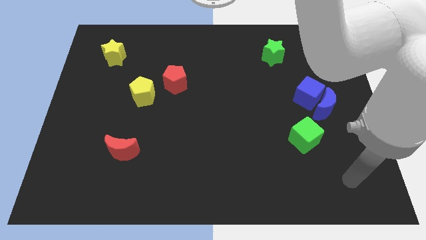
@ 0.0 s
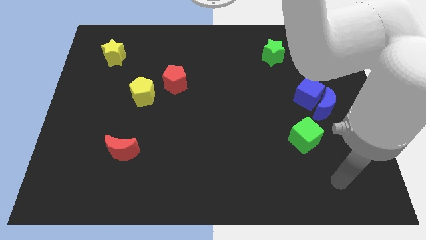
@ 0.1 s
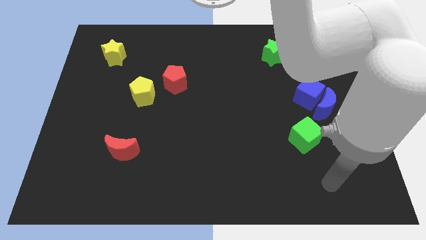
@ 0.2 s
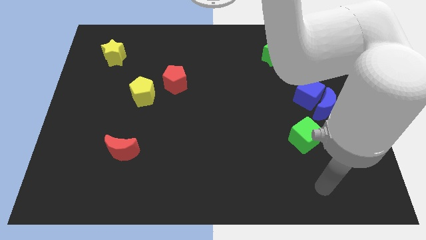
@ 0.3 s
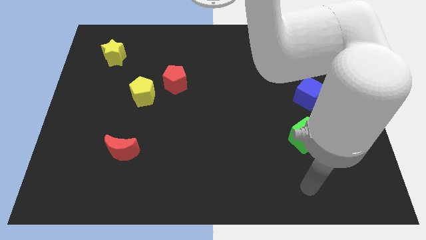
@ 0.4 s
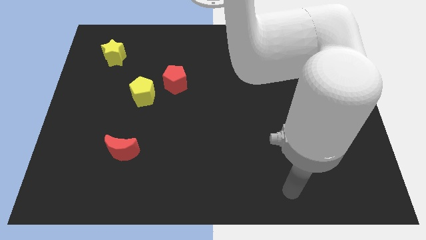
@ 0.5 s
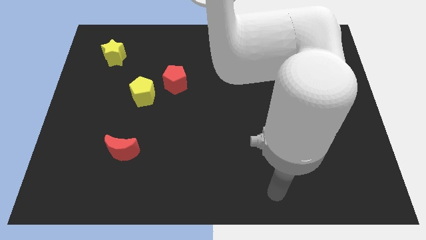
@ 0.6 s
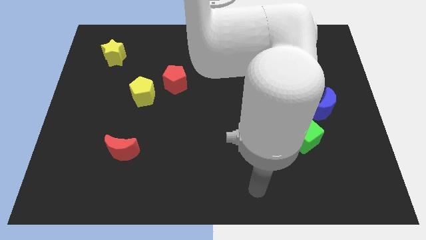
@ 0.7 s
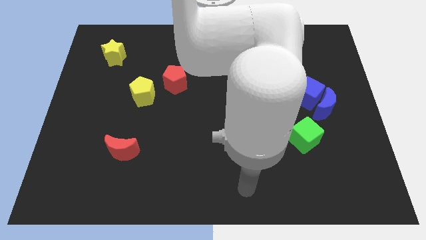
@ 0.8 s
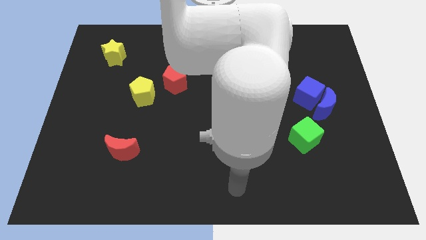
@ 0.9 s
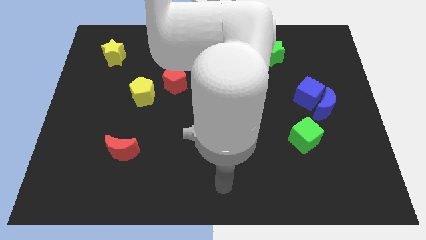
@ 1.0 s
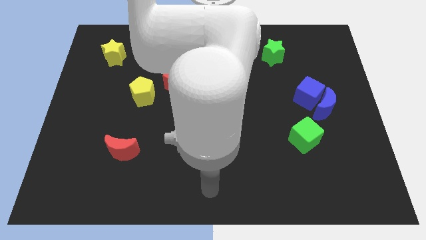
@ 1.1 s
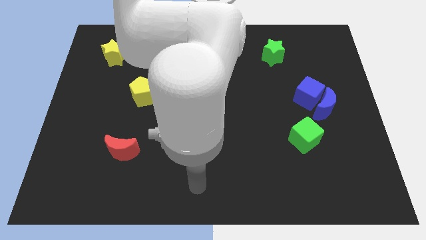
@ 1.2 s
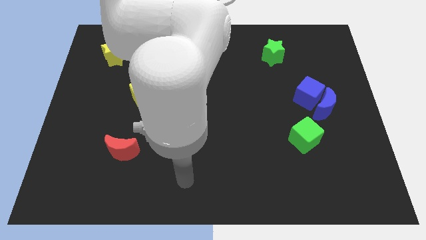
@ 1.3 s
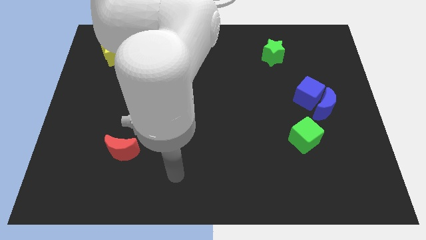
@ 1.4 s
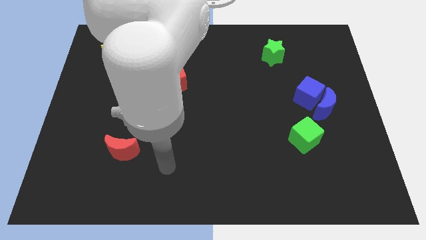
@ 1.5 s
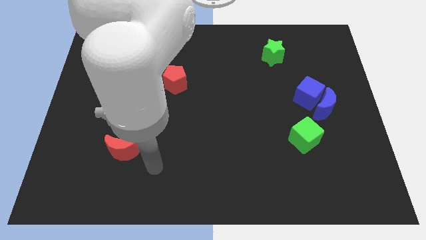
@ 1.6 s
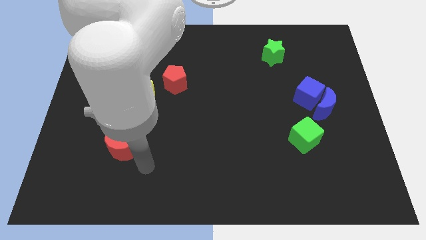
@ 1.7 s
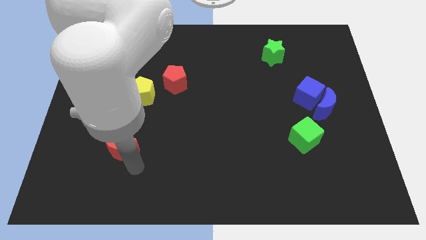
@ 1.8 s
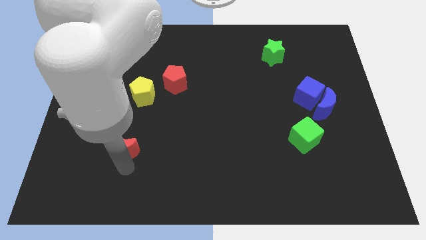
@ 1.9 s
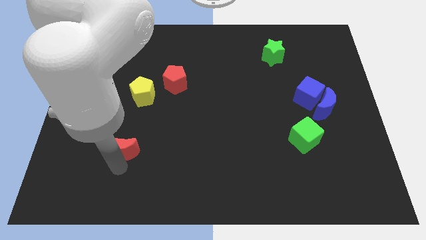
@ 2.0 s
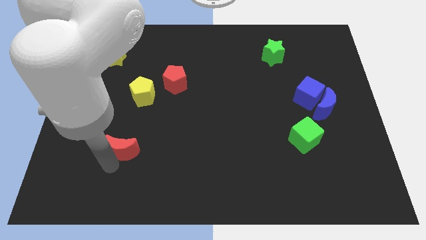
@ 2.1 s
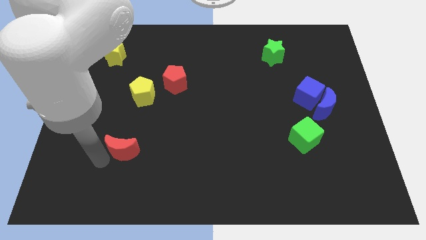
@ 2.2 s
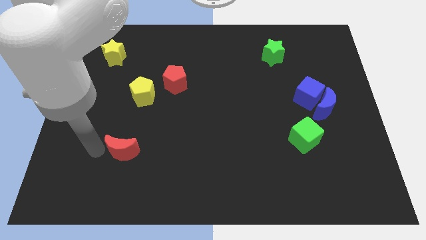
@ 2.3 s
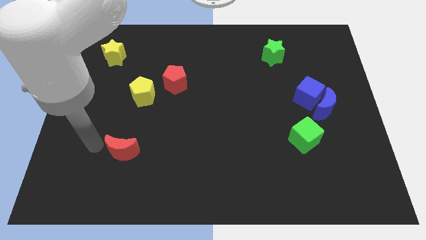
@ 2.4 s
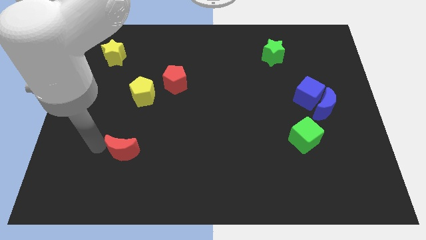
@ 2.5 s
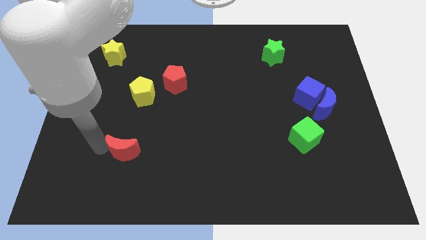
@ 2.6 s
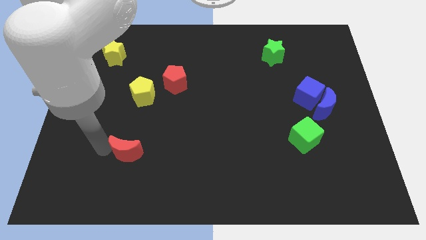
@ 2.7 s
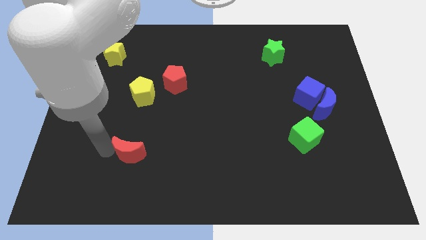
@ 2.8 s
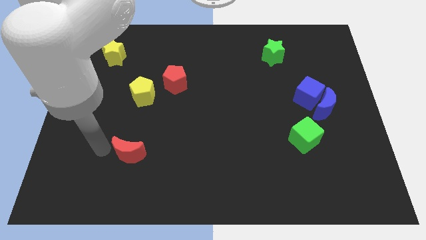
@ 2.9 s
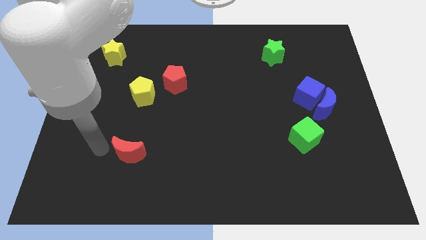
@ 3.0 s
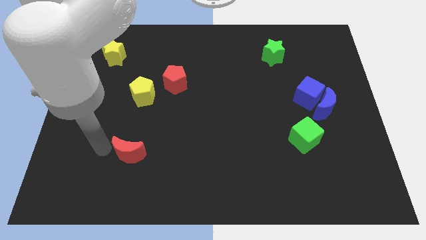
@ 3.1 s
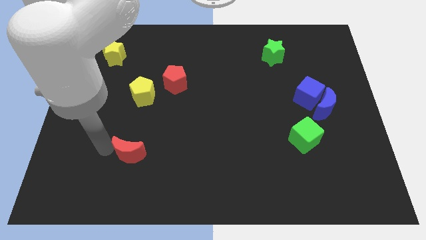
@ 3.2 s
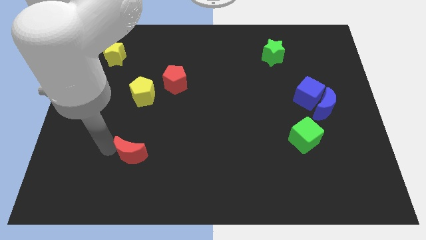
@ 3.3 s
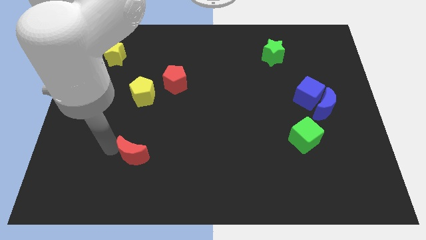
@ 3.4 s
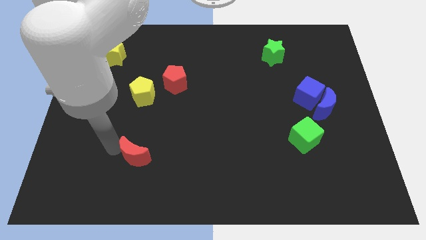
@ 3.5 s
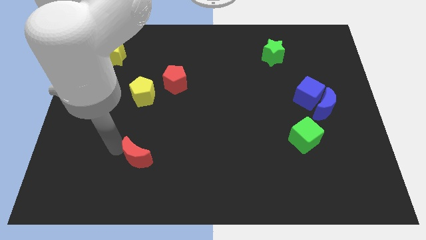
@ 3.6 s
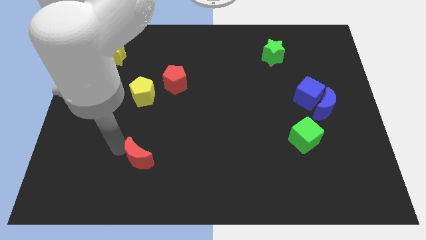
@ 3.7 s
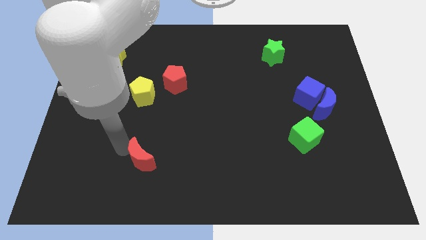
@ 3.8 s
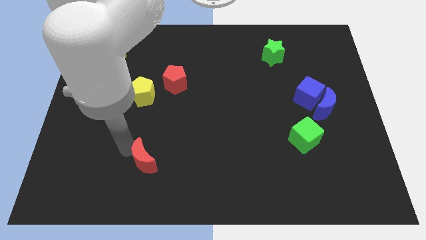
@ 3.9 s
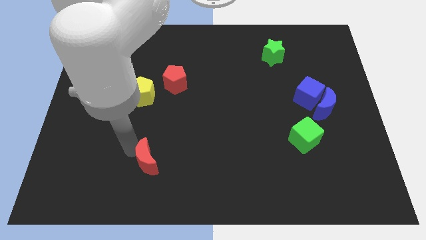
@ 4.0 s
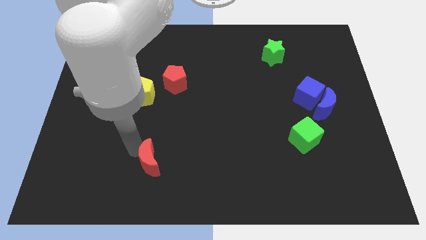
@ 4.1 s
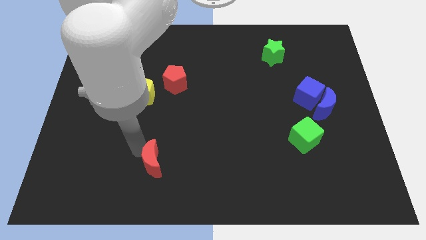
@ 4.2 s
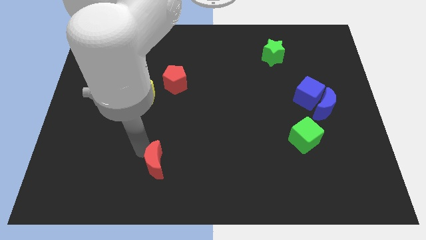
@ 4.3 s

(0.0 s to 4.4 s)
move the red moon slightly right

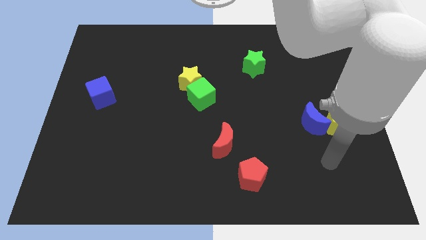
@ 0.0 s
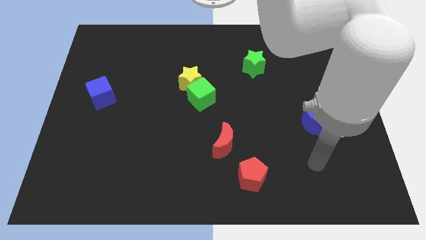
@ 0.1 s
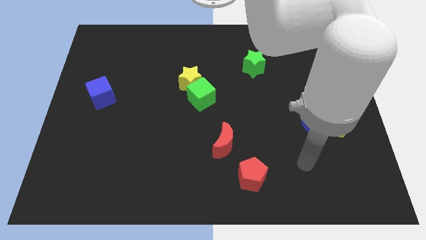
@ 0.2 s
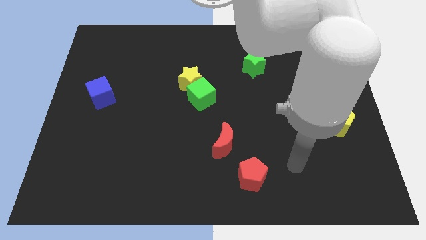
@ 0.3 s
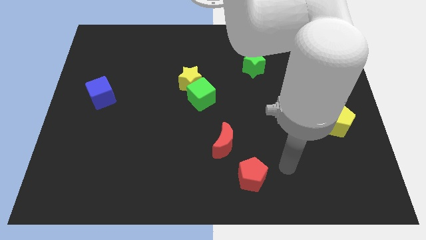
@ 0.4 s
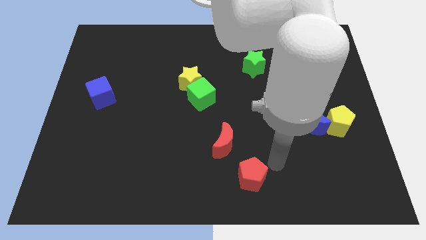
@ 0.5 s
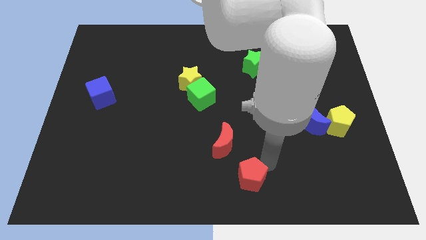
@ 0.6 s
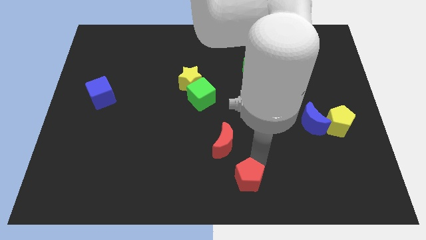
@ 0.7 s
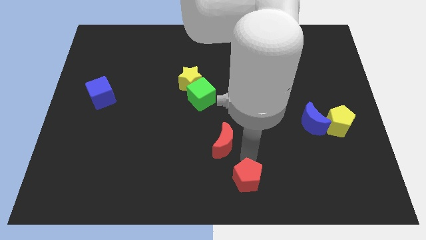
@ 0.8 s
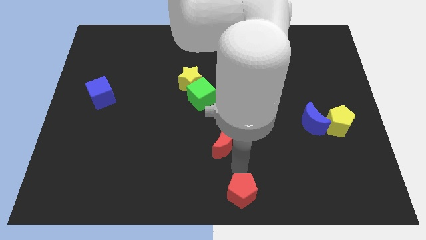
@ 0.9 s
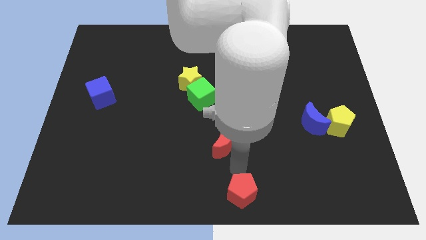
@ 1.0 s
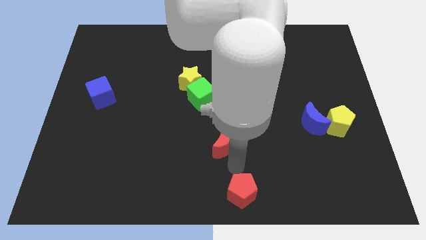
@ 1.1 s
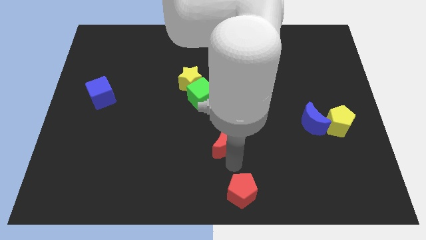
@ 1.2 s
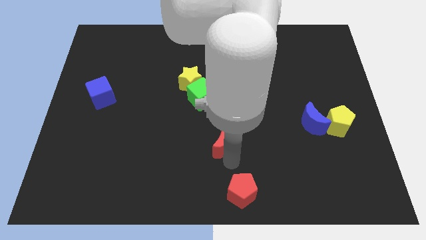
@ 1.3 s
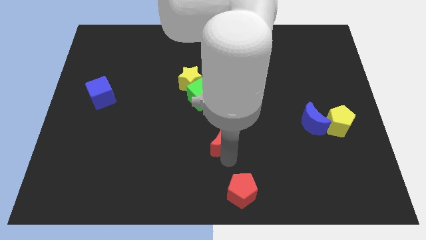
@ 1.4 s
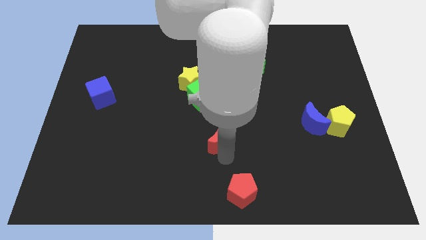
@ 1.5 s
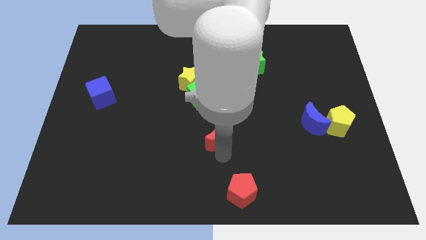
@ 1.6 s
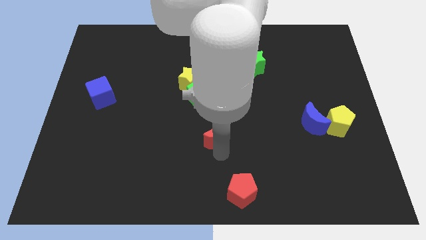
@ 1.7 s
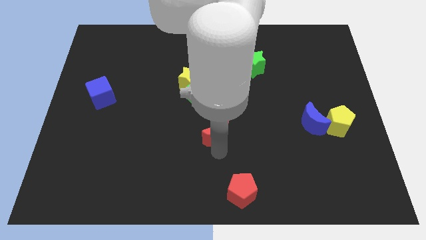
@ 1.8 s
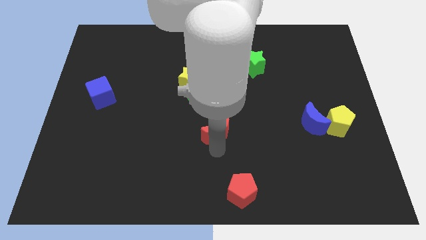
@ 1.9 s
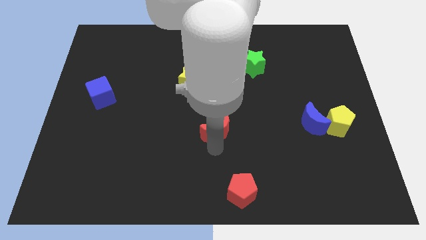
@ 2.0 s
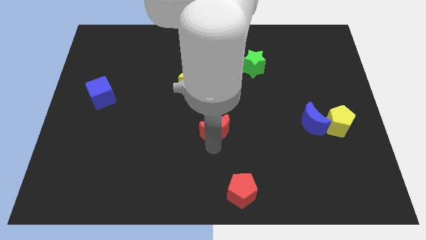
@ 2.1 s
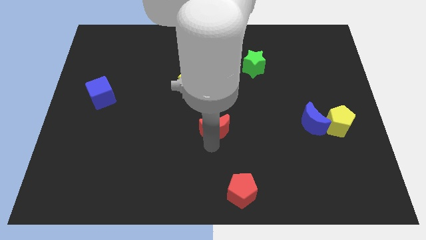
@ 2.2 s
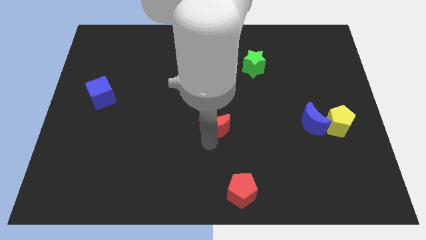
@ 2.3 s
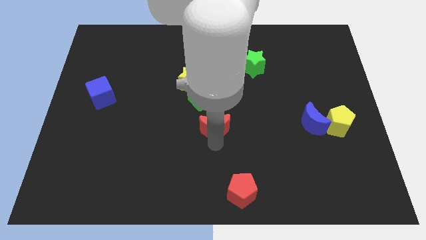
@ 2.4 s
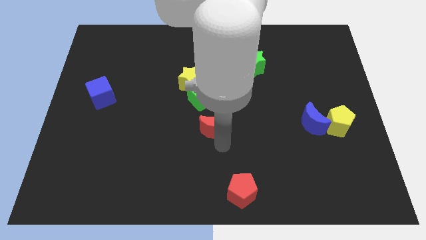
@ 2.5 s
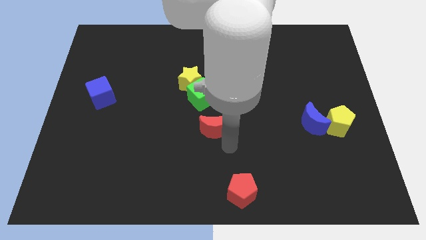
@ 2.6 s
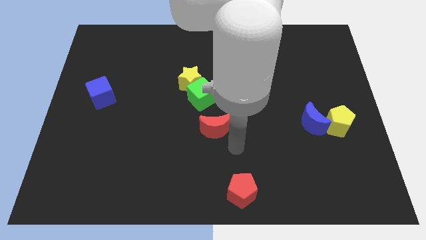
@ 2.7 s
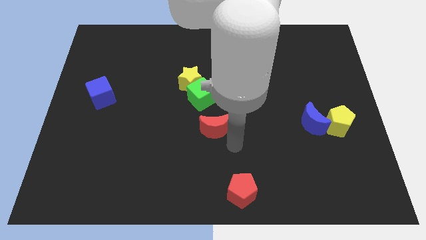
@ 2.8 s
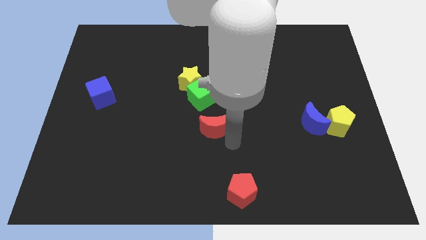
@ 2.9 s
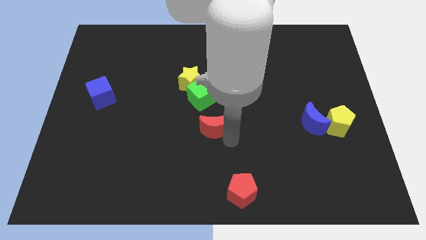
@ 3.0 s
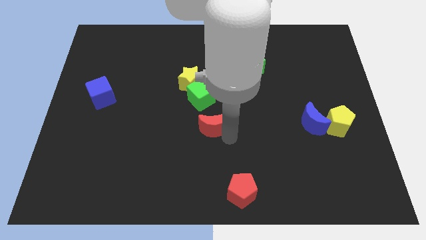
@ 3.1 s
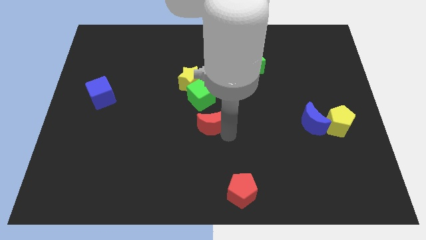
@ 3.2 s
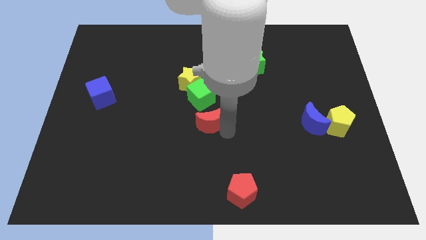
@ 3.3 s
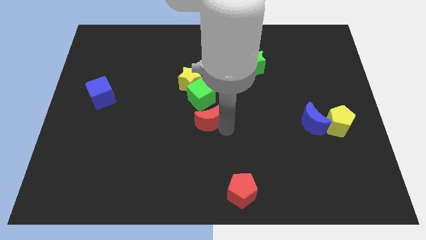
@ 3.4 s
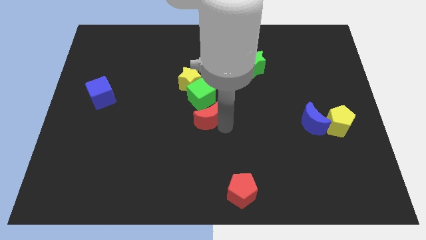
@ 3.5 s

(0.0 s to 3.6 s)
slightly push the red moon diagonally up and left
